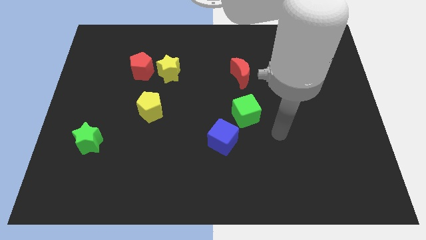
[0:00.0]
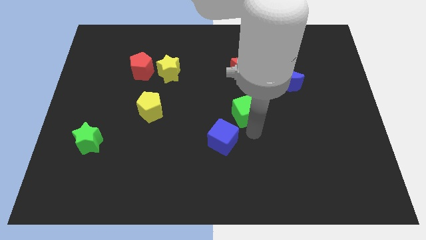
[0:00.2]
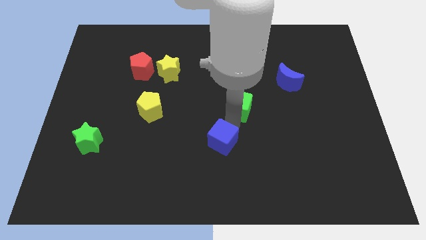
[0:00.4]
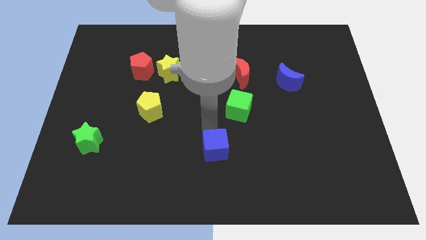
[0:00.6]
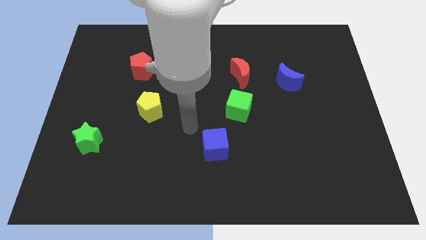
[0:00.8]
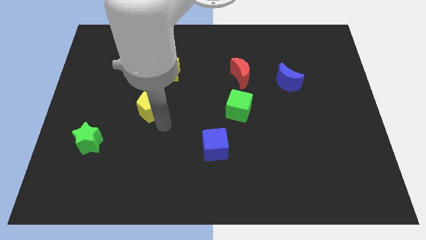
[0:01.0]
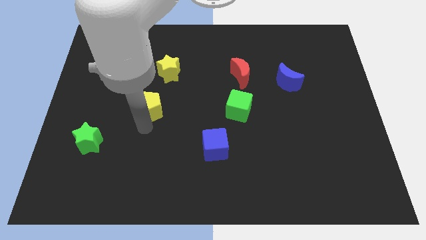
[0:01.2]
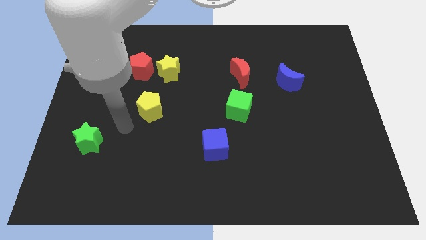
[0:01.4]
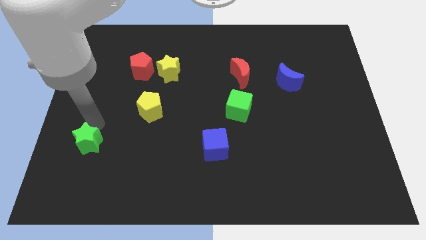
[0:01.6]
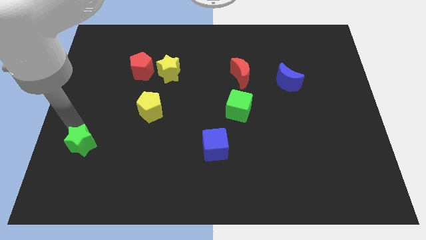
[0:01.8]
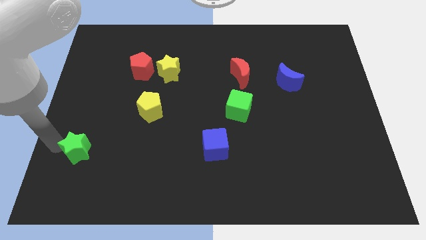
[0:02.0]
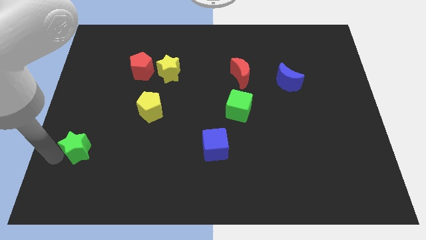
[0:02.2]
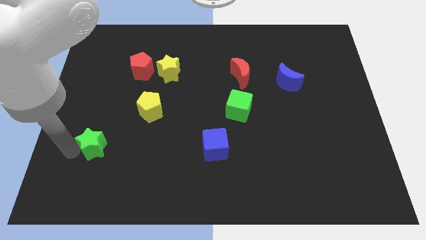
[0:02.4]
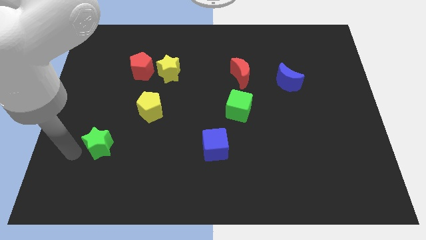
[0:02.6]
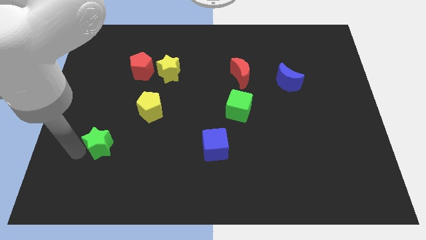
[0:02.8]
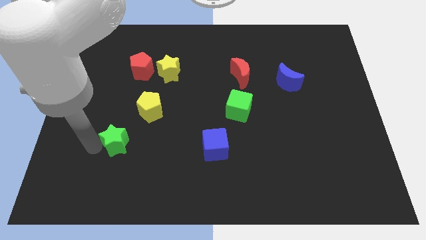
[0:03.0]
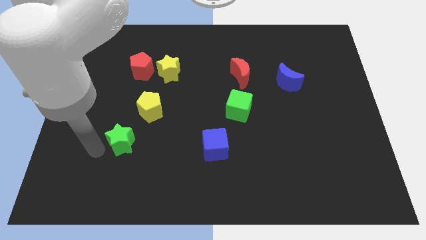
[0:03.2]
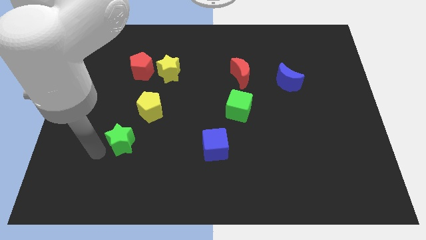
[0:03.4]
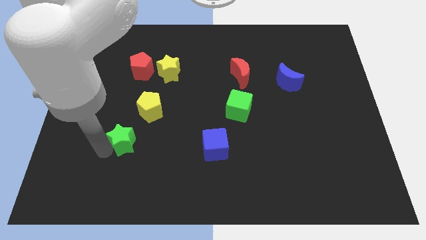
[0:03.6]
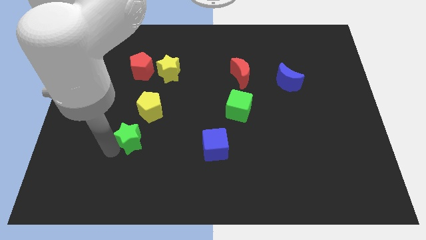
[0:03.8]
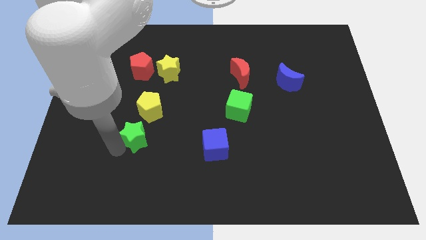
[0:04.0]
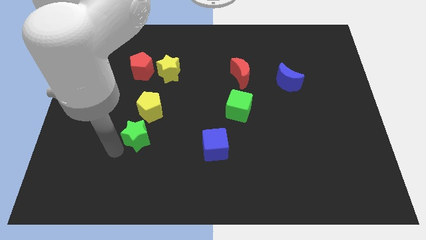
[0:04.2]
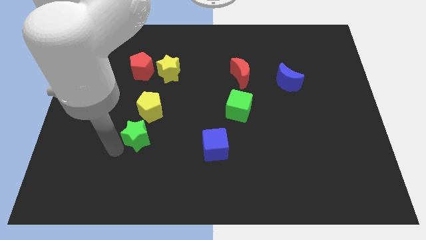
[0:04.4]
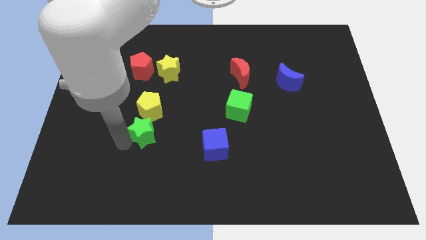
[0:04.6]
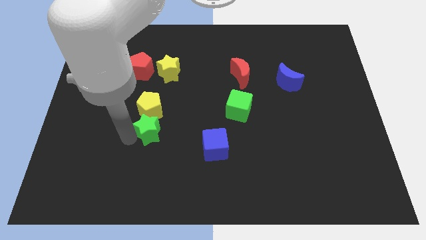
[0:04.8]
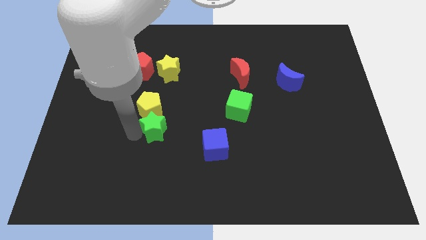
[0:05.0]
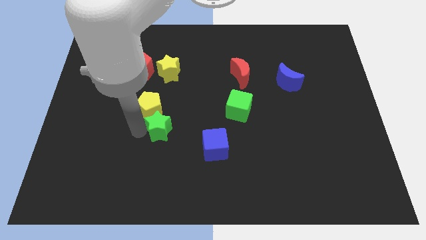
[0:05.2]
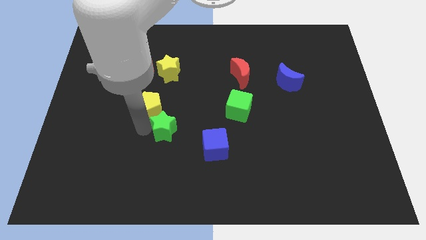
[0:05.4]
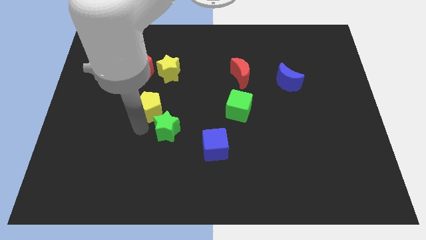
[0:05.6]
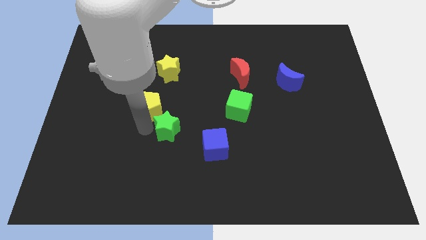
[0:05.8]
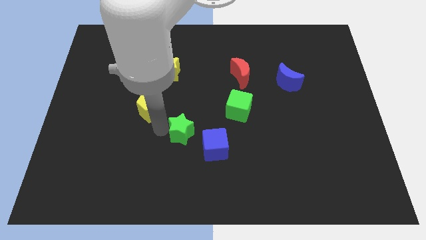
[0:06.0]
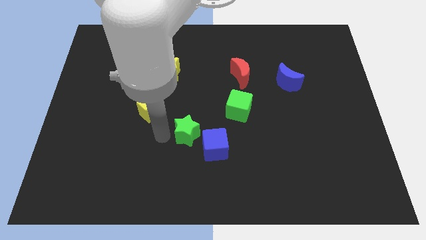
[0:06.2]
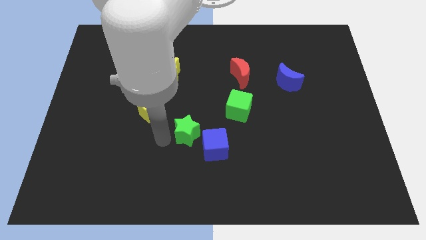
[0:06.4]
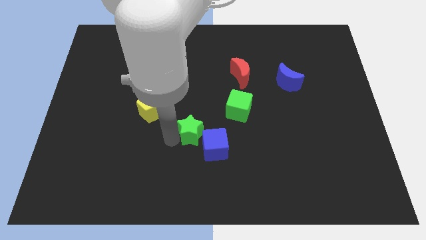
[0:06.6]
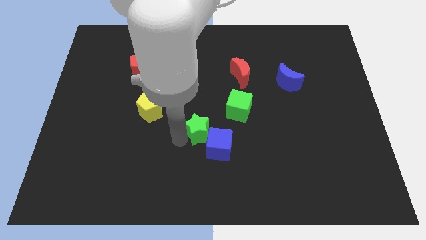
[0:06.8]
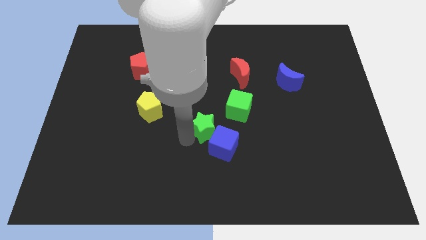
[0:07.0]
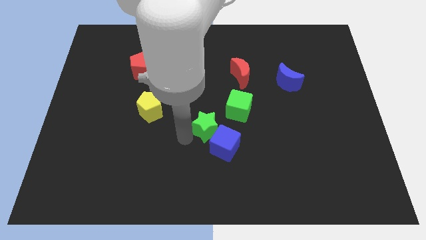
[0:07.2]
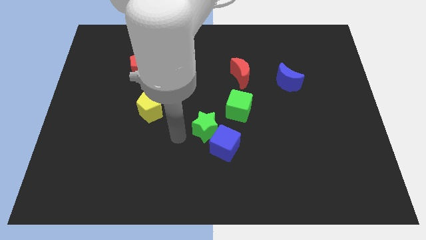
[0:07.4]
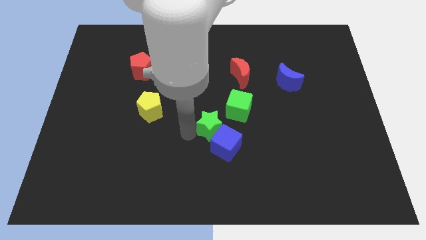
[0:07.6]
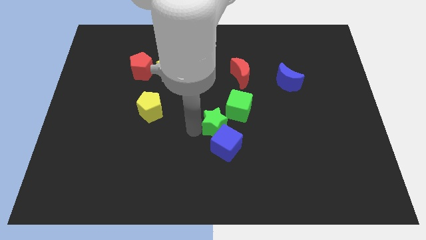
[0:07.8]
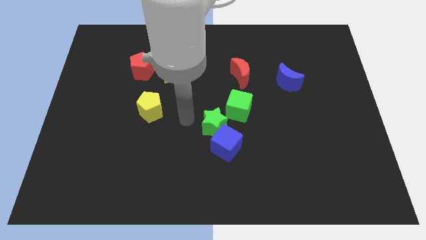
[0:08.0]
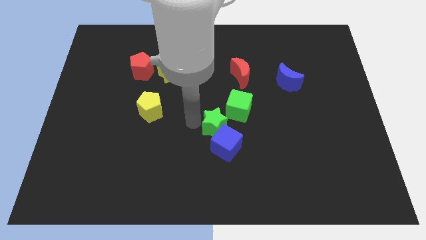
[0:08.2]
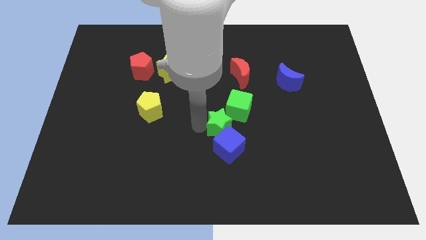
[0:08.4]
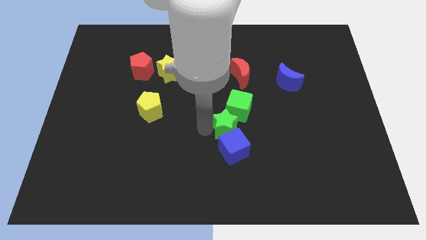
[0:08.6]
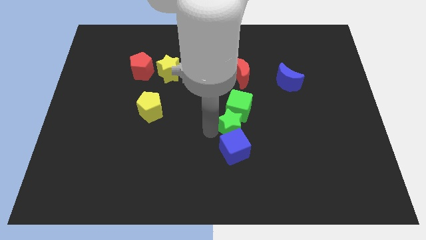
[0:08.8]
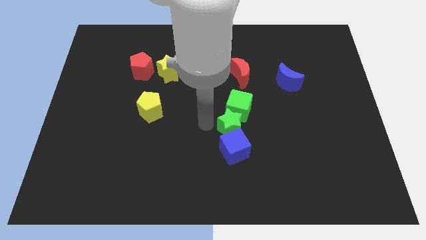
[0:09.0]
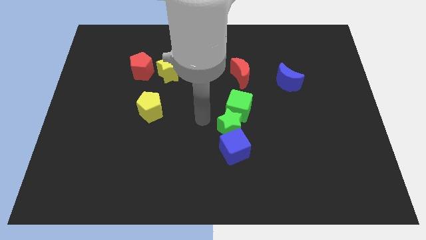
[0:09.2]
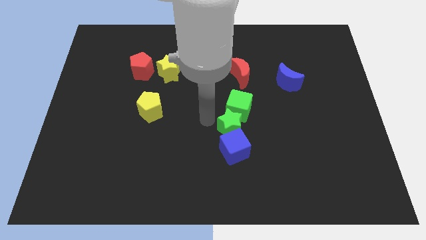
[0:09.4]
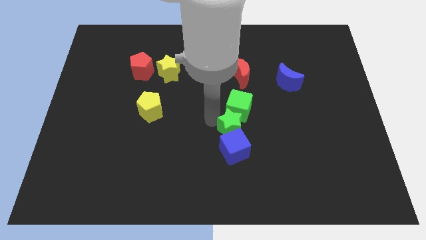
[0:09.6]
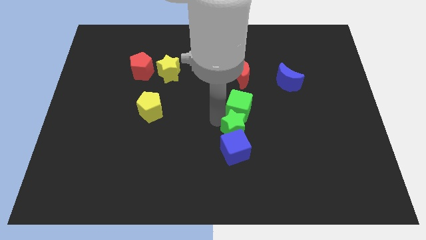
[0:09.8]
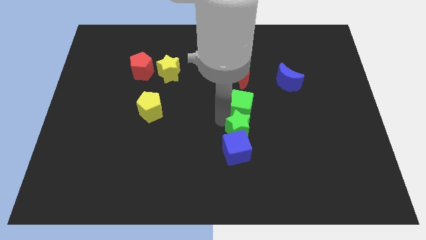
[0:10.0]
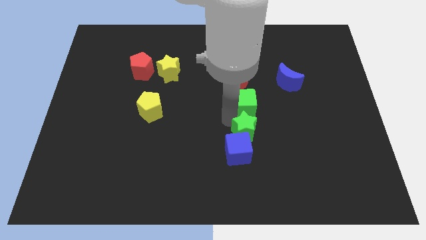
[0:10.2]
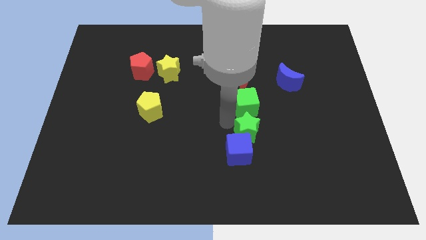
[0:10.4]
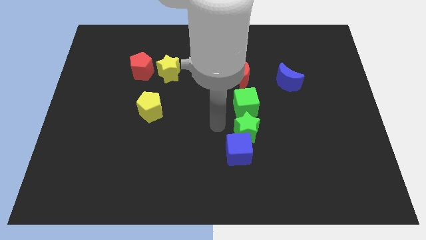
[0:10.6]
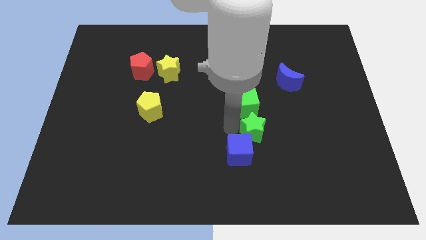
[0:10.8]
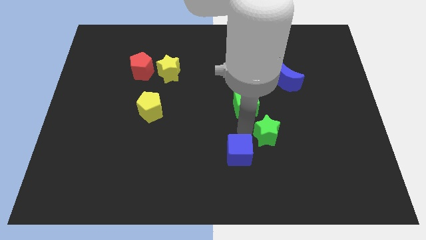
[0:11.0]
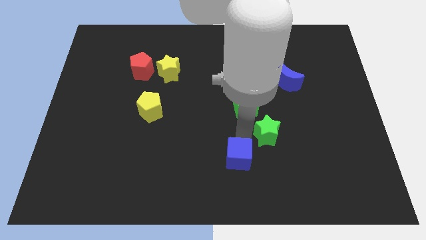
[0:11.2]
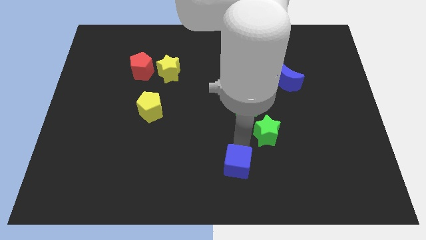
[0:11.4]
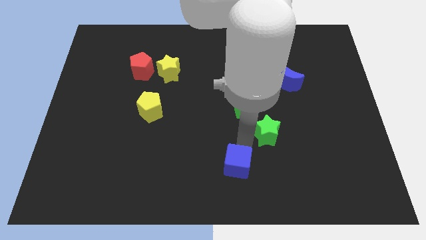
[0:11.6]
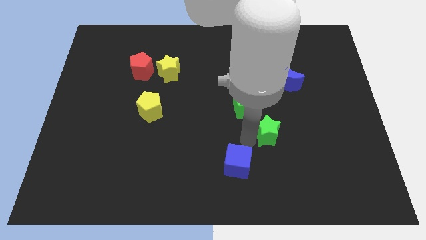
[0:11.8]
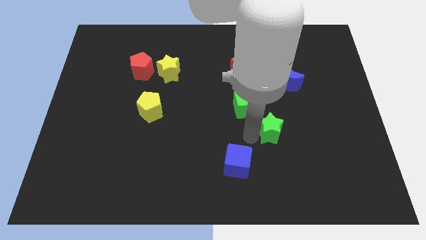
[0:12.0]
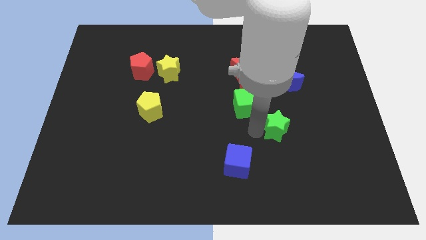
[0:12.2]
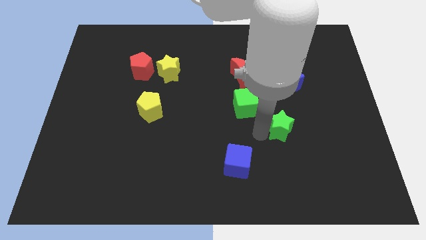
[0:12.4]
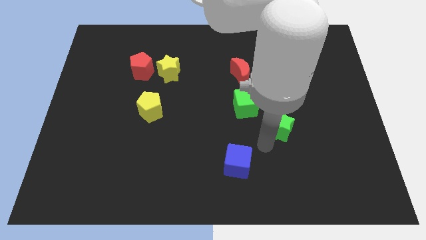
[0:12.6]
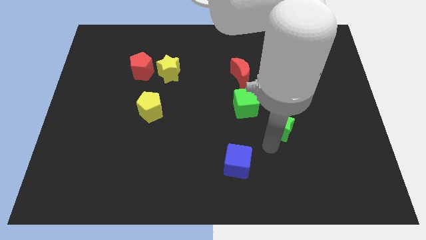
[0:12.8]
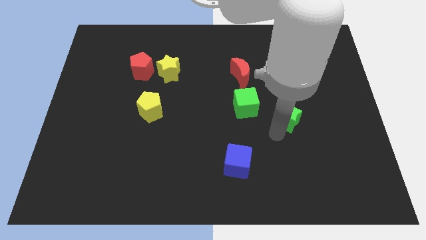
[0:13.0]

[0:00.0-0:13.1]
put the green star to the right side of the green cube

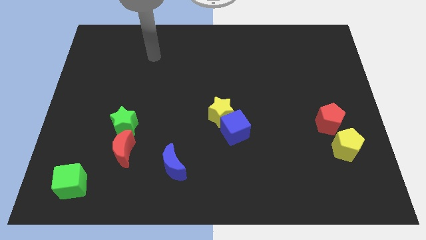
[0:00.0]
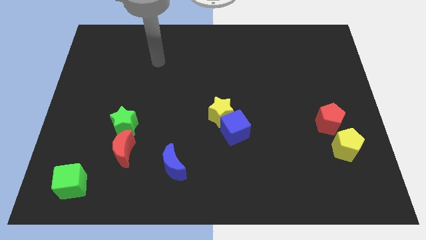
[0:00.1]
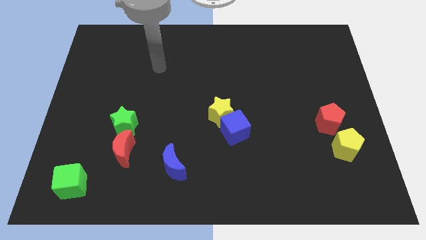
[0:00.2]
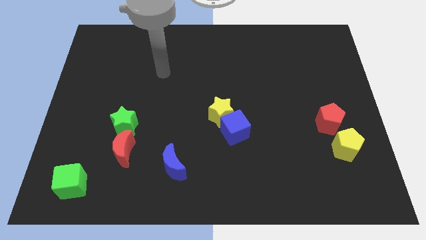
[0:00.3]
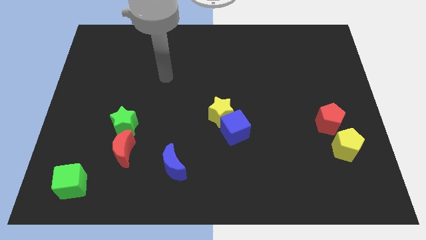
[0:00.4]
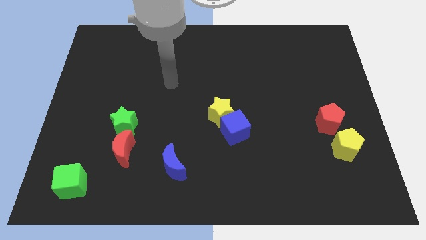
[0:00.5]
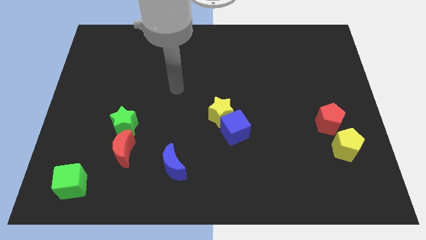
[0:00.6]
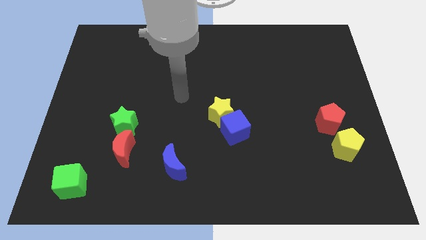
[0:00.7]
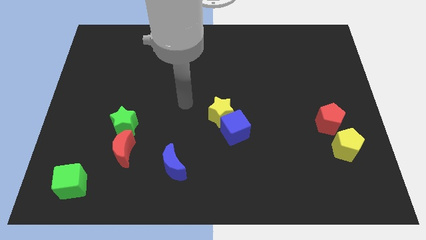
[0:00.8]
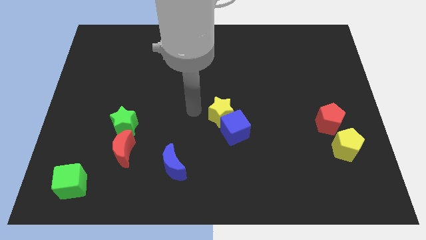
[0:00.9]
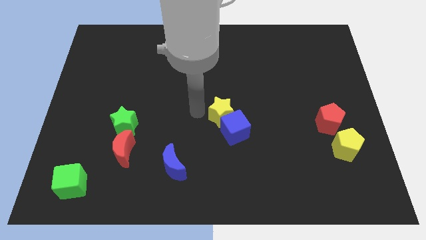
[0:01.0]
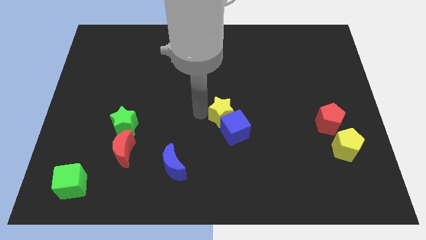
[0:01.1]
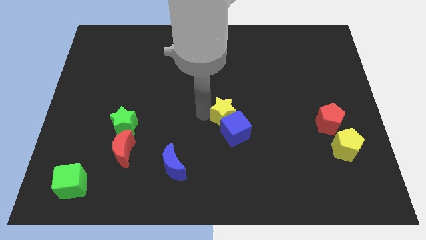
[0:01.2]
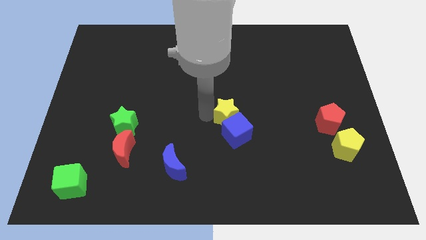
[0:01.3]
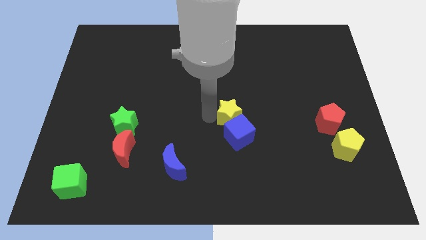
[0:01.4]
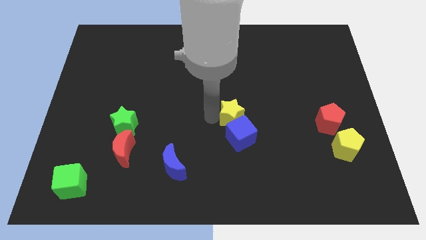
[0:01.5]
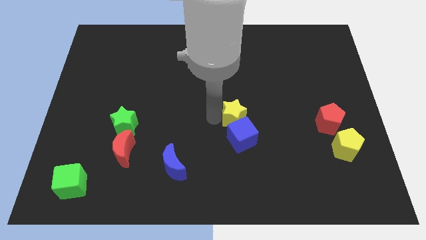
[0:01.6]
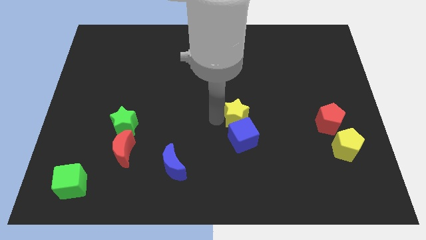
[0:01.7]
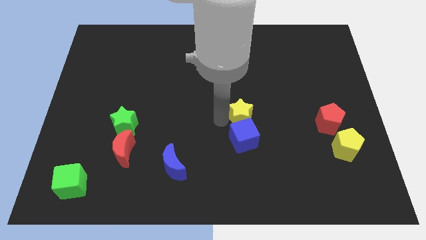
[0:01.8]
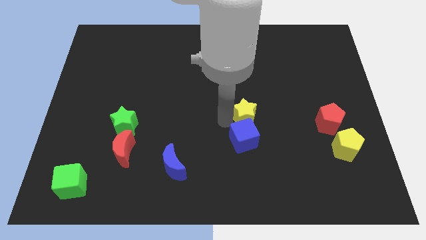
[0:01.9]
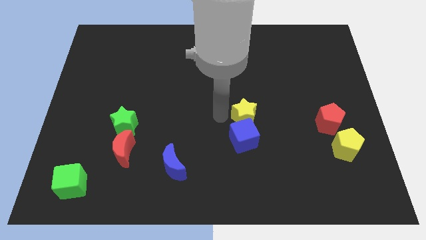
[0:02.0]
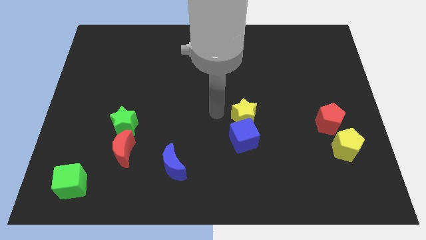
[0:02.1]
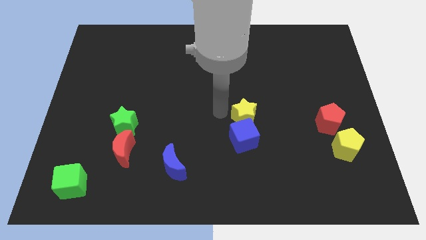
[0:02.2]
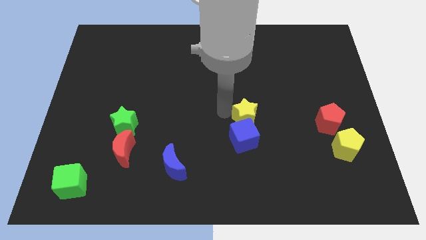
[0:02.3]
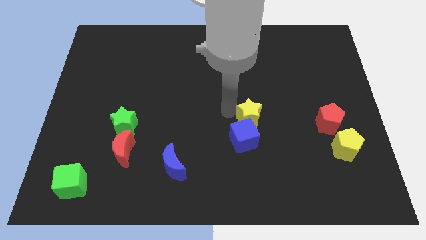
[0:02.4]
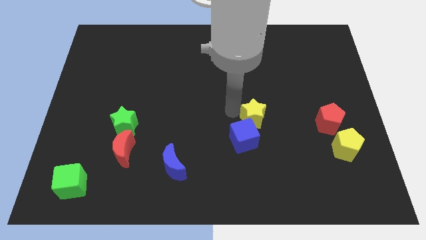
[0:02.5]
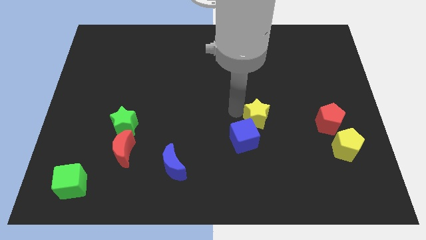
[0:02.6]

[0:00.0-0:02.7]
push the yellow star to the left side of the red pentagon
